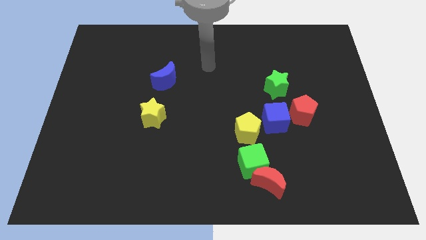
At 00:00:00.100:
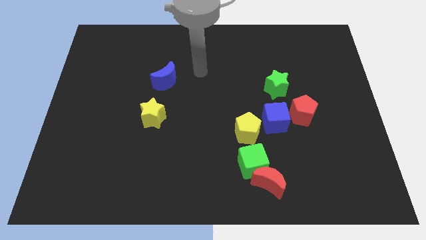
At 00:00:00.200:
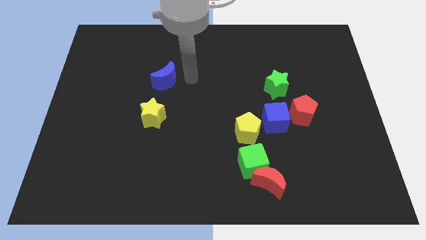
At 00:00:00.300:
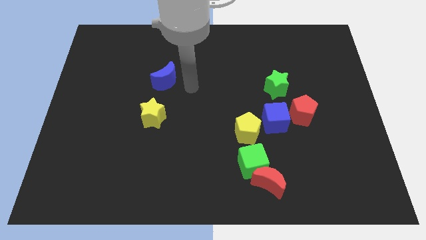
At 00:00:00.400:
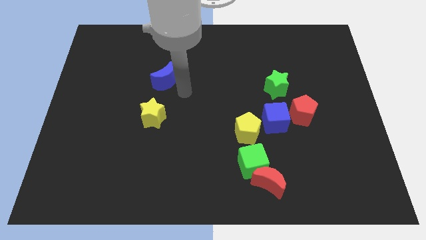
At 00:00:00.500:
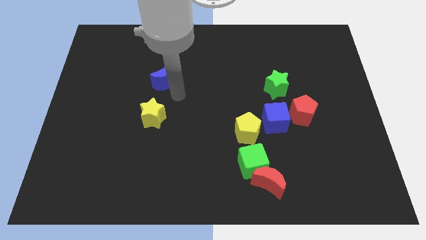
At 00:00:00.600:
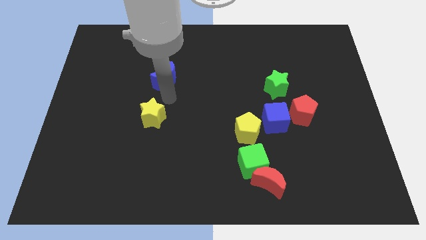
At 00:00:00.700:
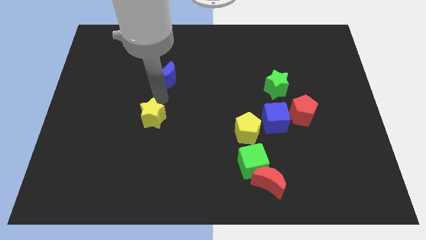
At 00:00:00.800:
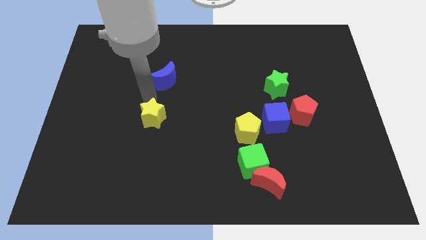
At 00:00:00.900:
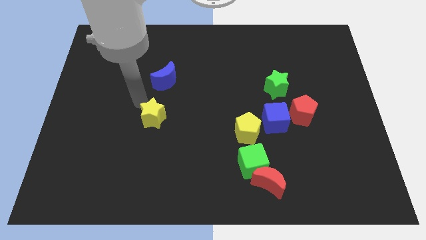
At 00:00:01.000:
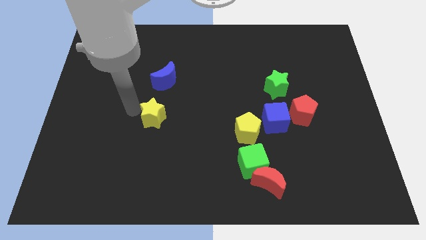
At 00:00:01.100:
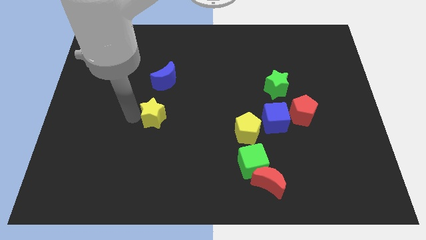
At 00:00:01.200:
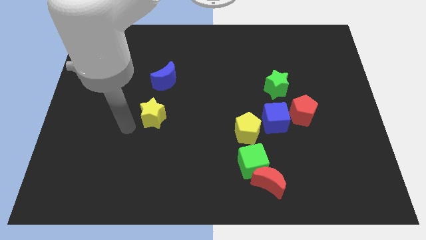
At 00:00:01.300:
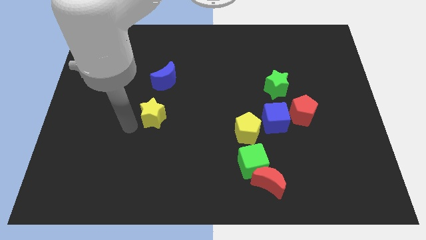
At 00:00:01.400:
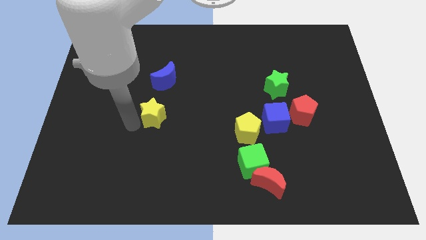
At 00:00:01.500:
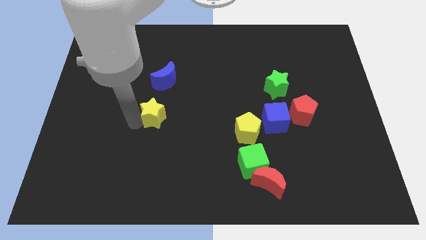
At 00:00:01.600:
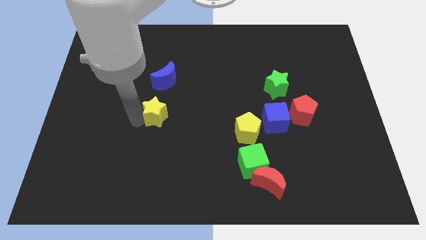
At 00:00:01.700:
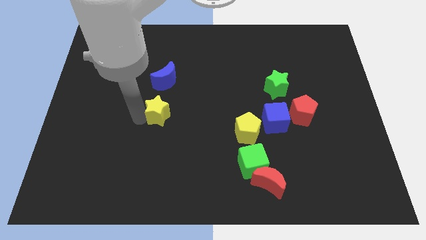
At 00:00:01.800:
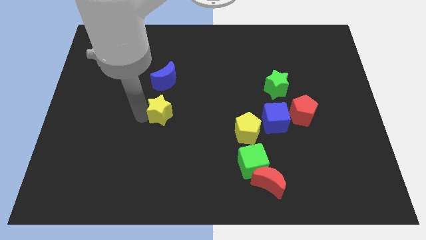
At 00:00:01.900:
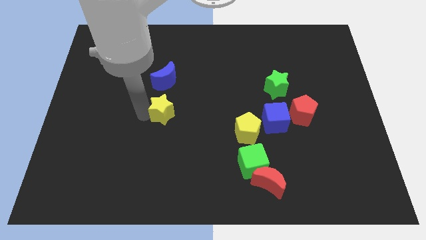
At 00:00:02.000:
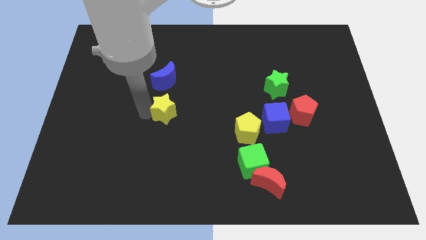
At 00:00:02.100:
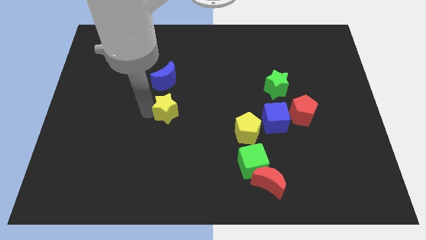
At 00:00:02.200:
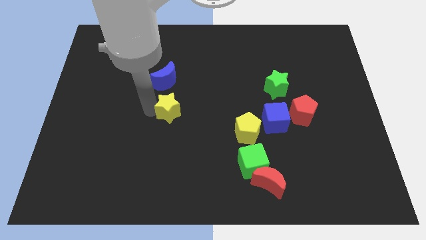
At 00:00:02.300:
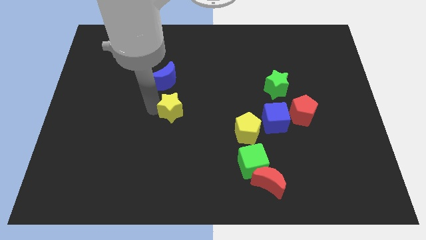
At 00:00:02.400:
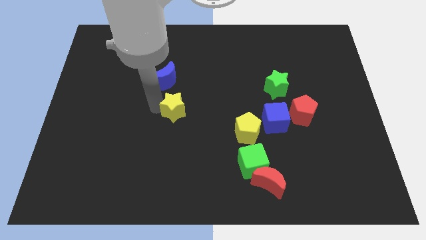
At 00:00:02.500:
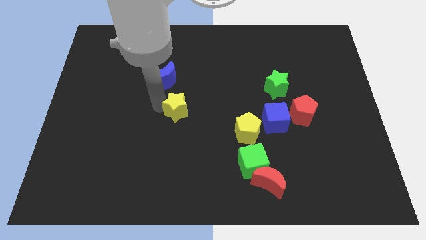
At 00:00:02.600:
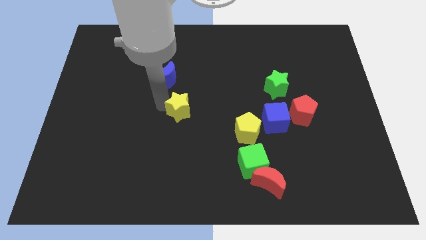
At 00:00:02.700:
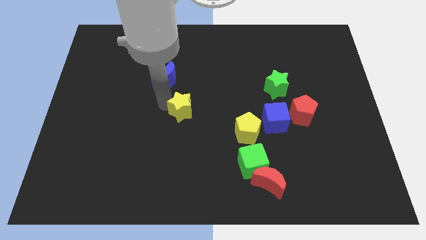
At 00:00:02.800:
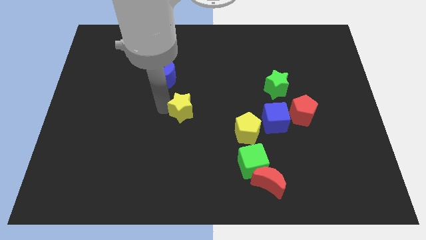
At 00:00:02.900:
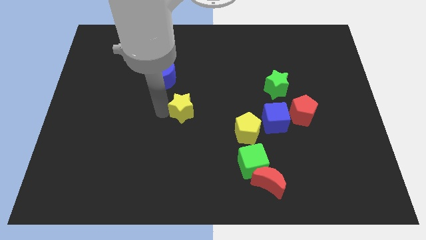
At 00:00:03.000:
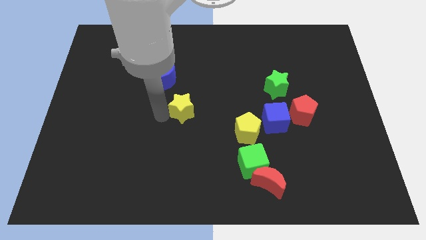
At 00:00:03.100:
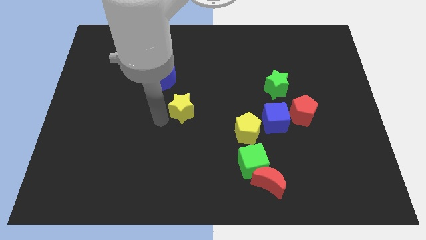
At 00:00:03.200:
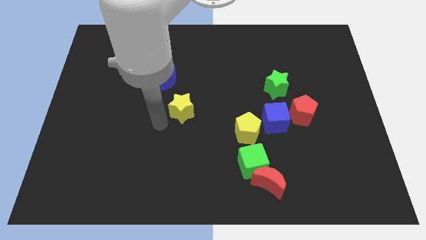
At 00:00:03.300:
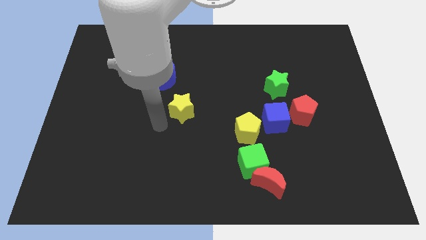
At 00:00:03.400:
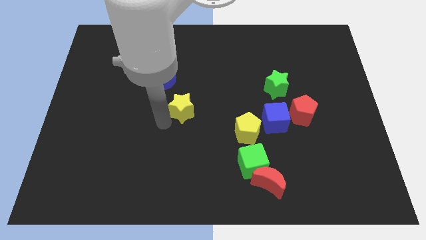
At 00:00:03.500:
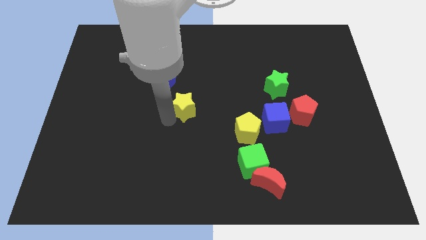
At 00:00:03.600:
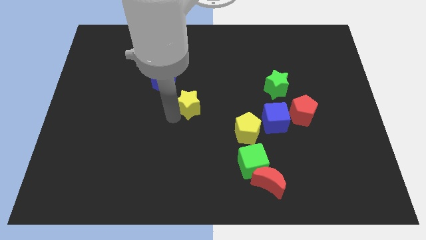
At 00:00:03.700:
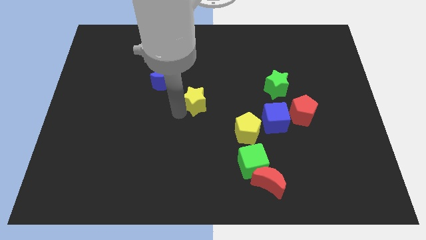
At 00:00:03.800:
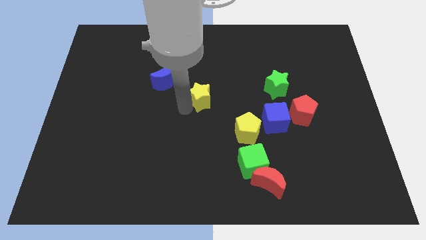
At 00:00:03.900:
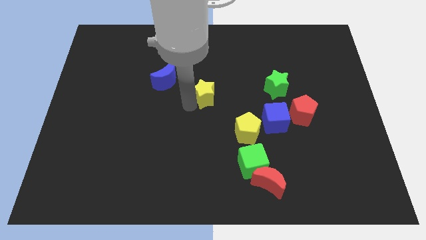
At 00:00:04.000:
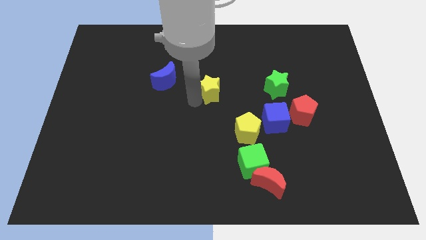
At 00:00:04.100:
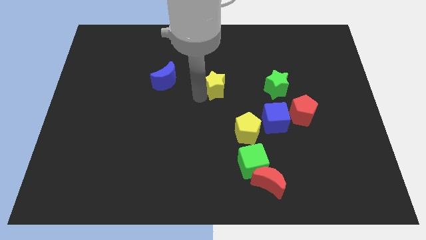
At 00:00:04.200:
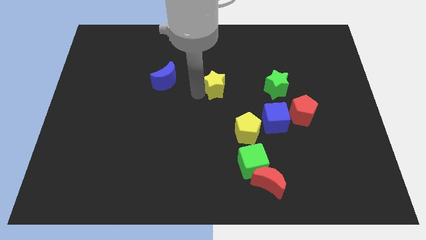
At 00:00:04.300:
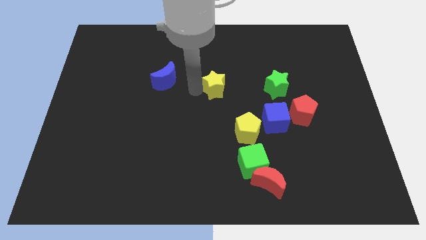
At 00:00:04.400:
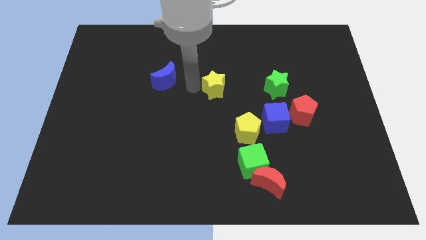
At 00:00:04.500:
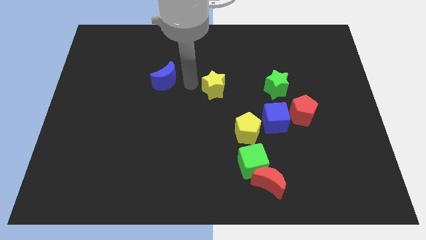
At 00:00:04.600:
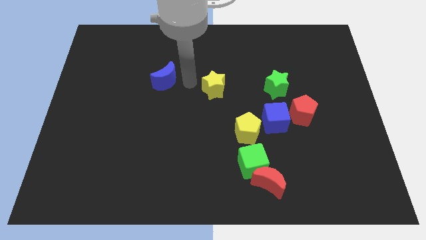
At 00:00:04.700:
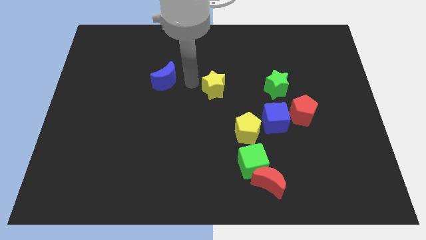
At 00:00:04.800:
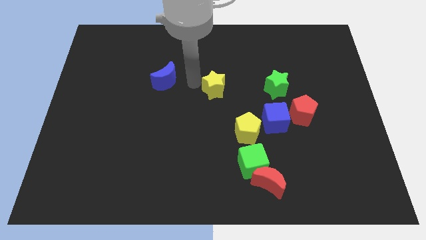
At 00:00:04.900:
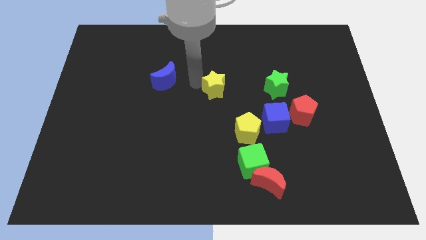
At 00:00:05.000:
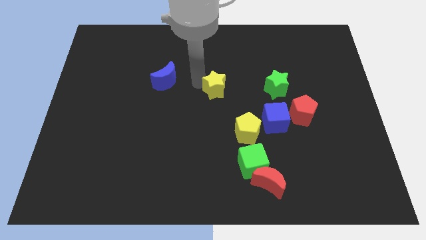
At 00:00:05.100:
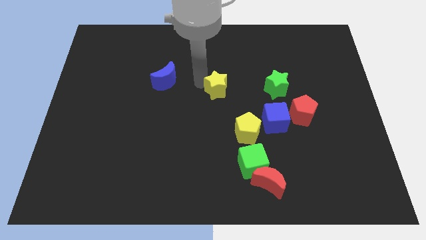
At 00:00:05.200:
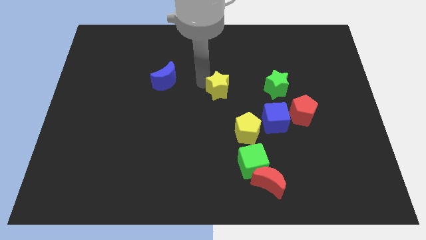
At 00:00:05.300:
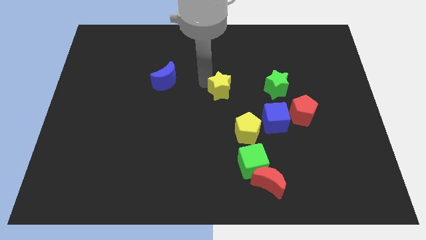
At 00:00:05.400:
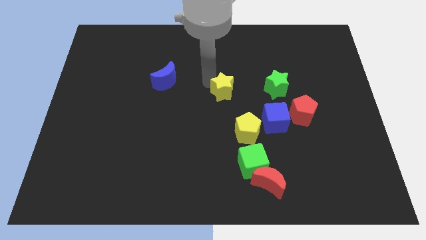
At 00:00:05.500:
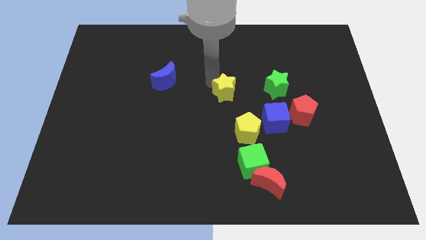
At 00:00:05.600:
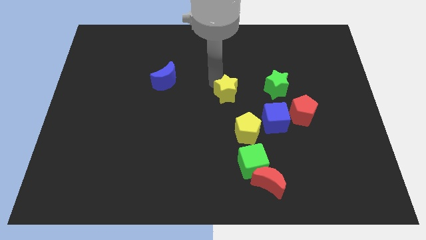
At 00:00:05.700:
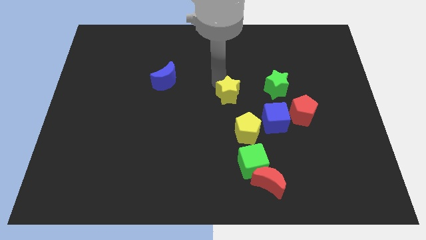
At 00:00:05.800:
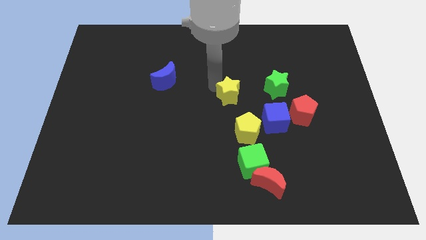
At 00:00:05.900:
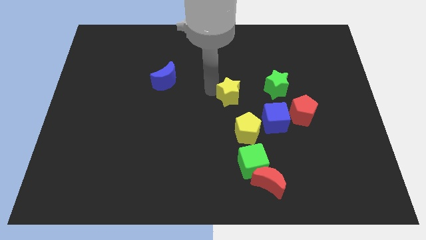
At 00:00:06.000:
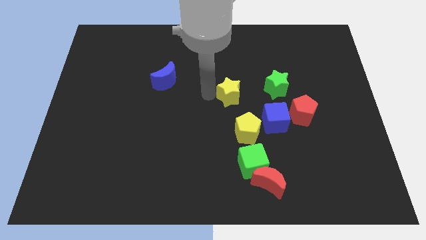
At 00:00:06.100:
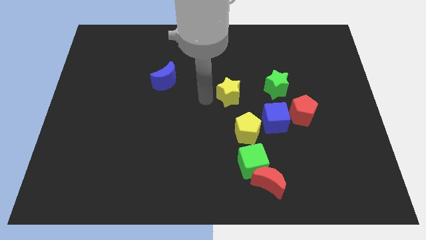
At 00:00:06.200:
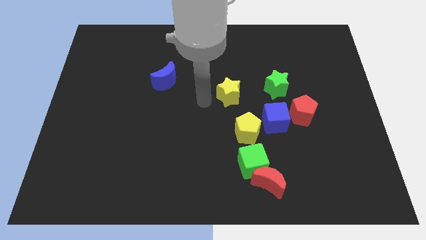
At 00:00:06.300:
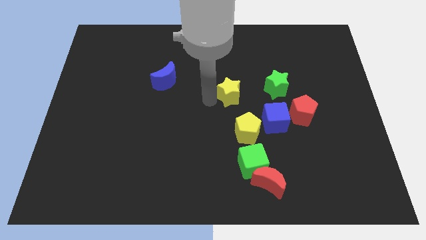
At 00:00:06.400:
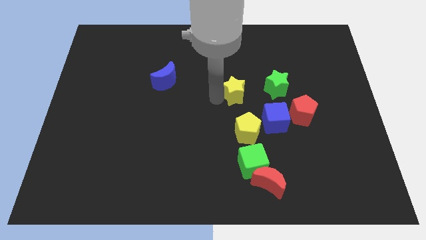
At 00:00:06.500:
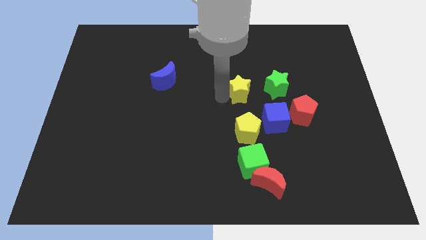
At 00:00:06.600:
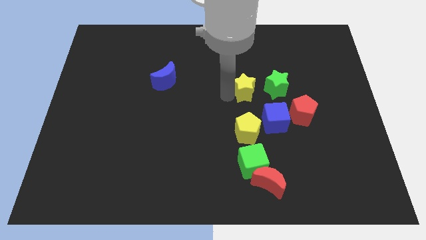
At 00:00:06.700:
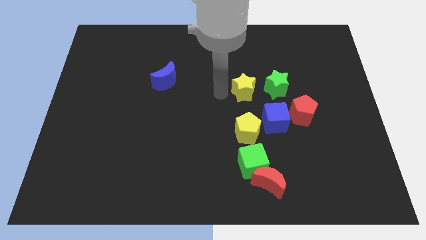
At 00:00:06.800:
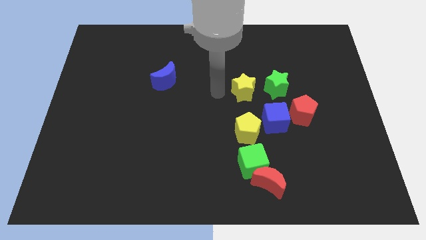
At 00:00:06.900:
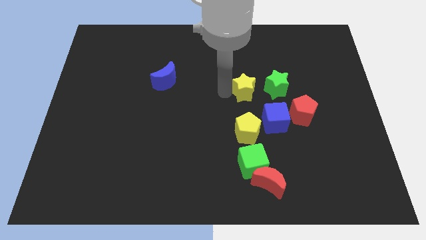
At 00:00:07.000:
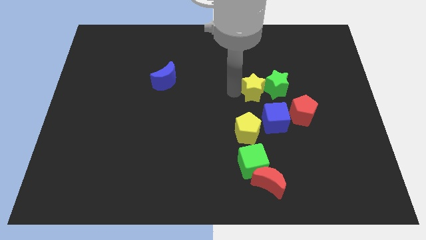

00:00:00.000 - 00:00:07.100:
put the yellow star towards the green star

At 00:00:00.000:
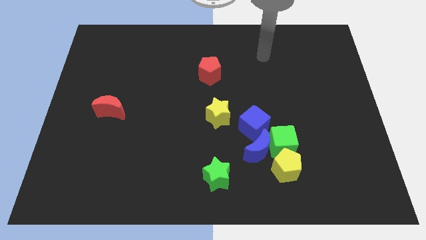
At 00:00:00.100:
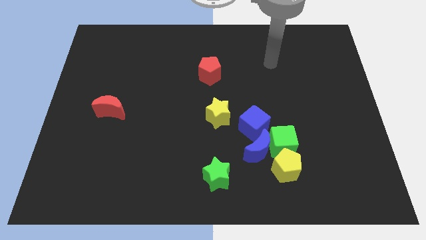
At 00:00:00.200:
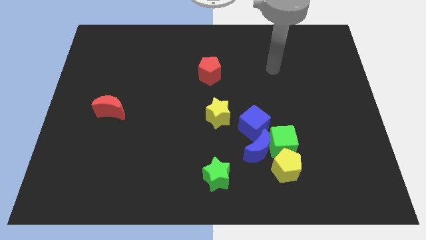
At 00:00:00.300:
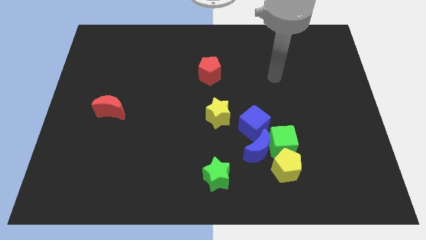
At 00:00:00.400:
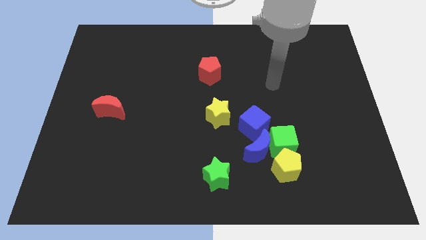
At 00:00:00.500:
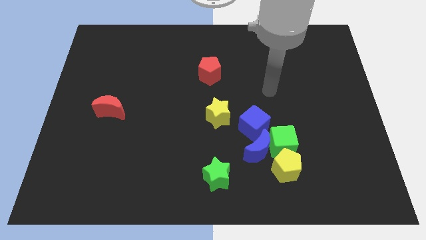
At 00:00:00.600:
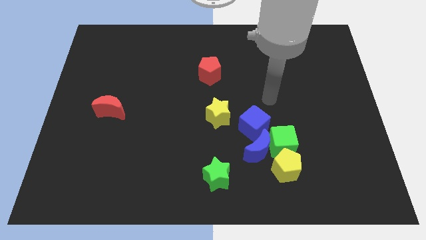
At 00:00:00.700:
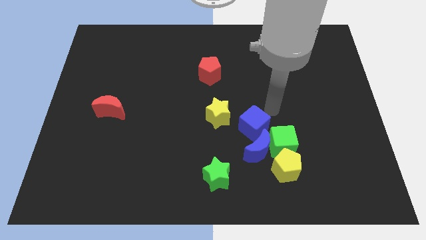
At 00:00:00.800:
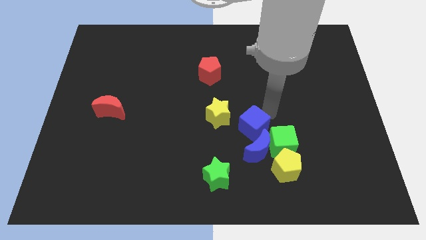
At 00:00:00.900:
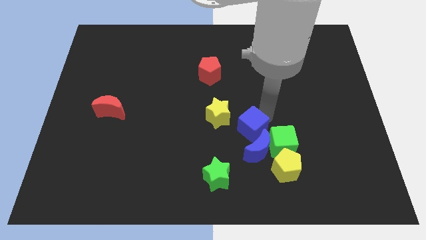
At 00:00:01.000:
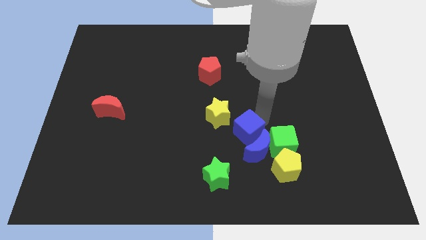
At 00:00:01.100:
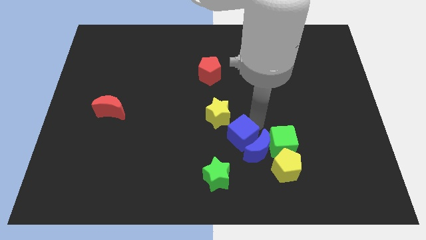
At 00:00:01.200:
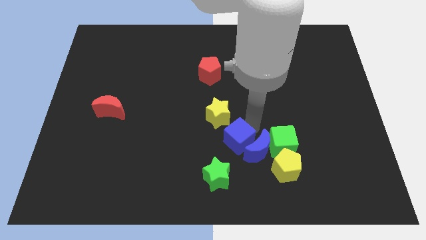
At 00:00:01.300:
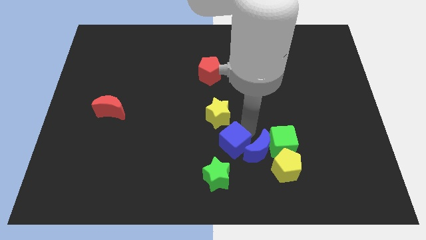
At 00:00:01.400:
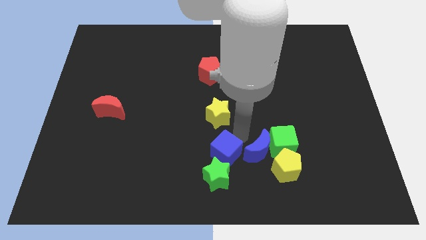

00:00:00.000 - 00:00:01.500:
move the blue cube next to the green star
